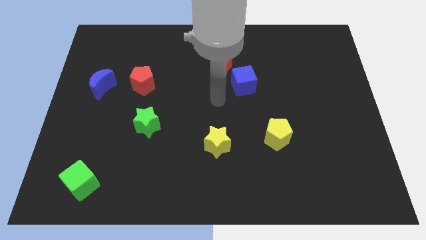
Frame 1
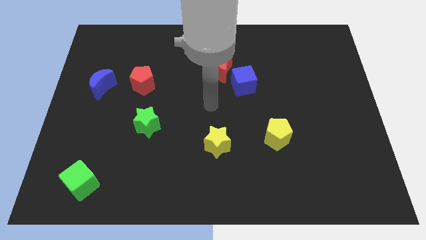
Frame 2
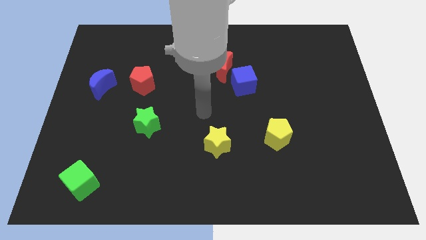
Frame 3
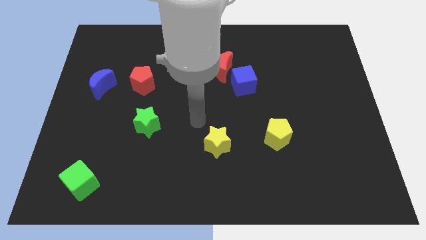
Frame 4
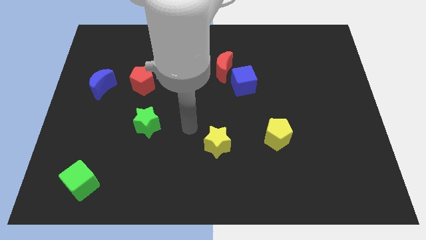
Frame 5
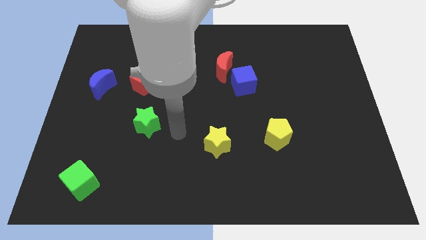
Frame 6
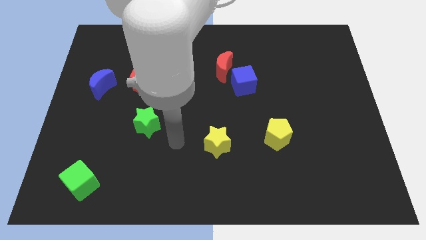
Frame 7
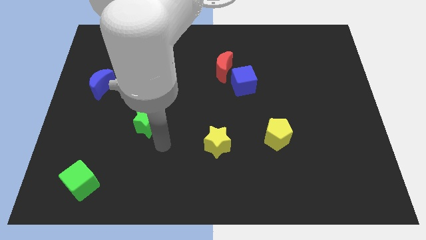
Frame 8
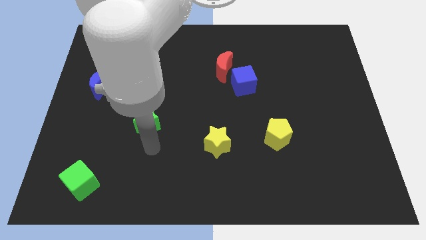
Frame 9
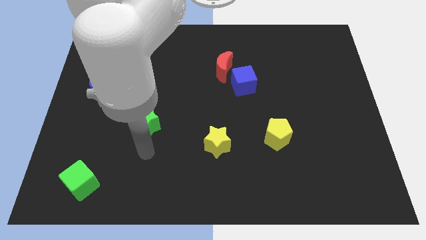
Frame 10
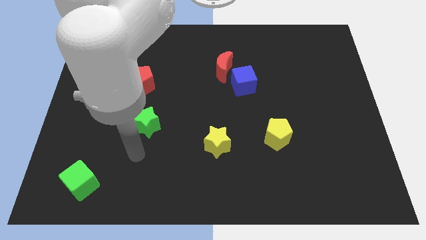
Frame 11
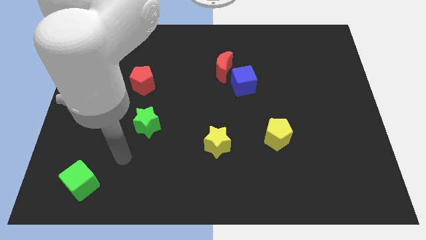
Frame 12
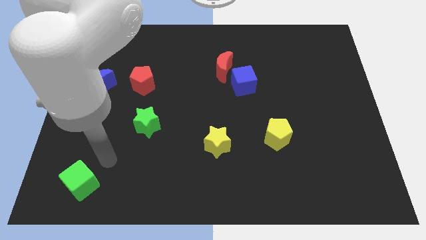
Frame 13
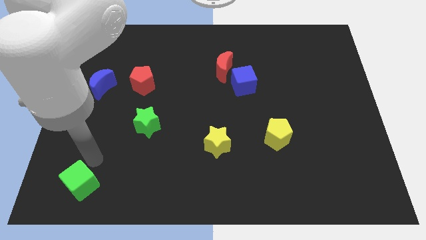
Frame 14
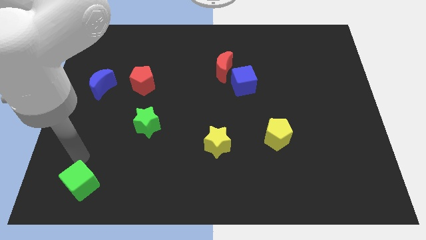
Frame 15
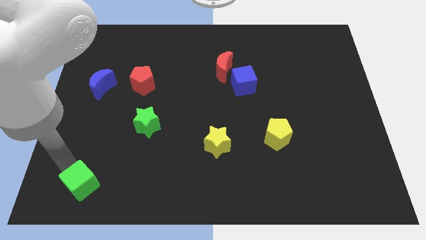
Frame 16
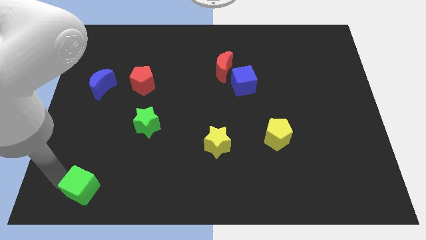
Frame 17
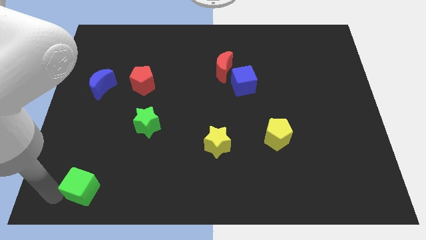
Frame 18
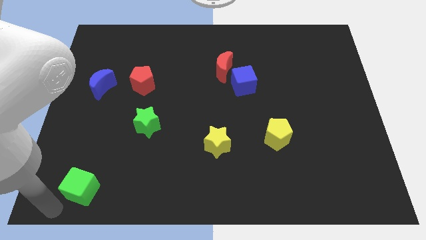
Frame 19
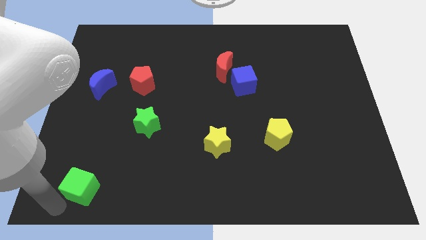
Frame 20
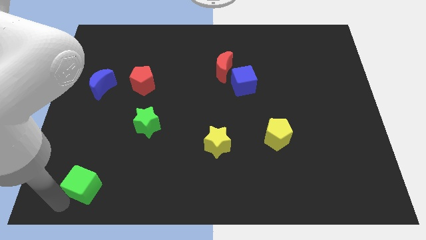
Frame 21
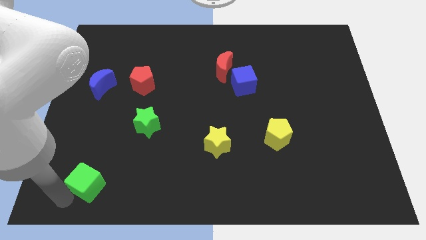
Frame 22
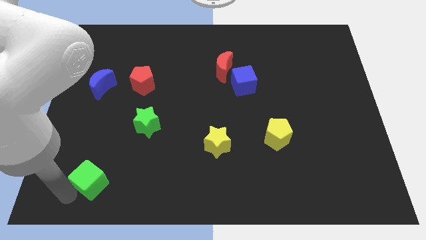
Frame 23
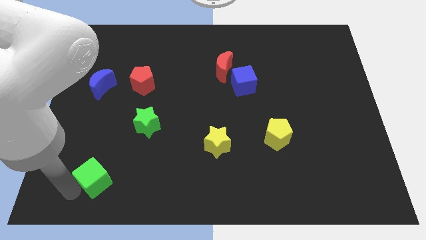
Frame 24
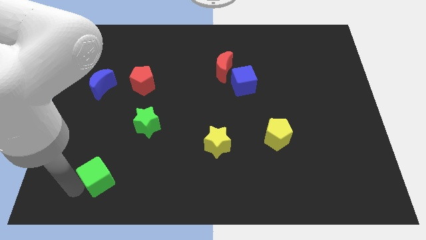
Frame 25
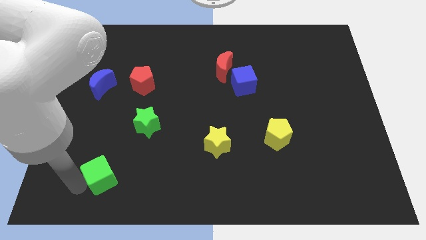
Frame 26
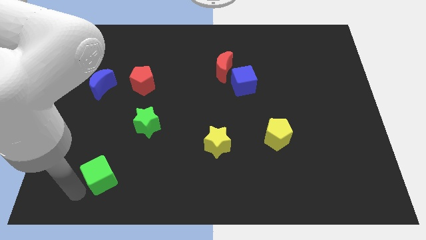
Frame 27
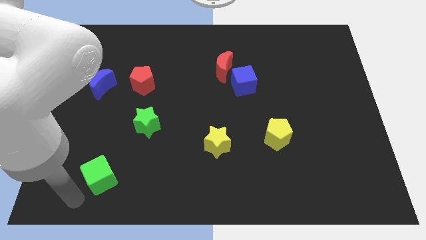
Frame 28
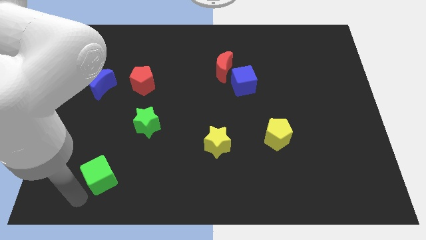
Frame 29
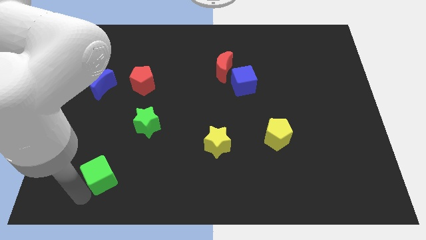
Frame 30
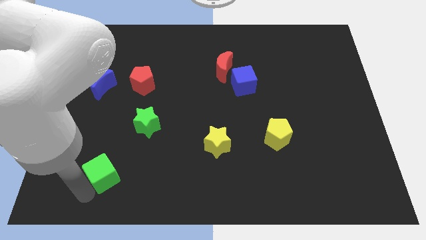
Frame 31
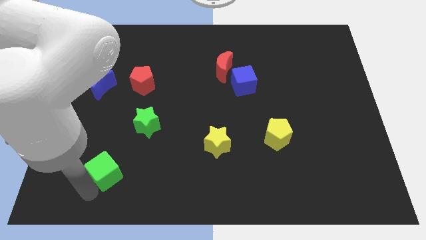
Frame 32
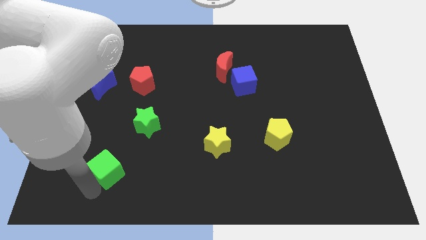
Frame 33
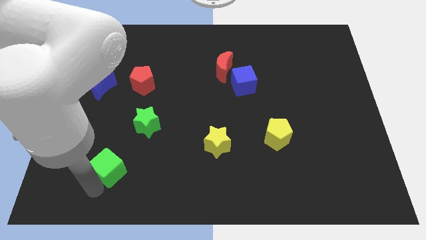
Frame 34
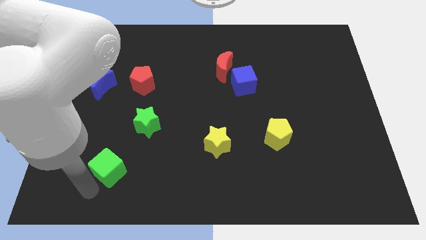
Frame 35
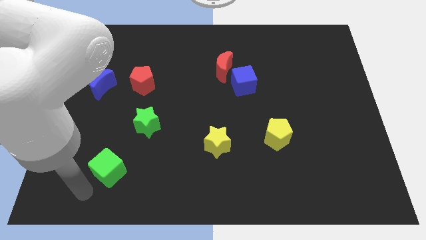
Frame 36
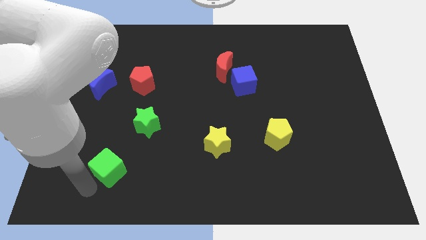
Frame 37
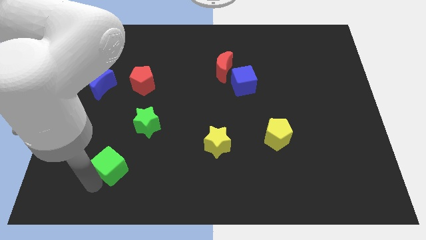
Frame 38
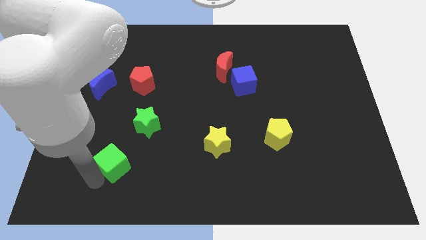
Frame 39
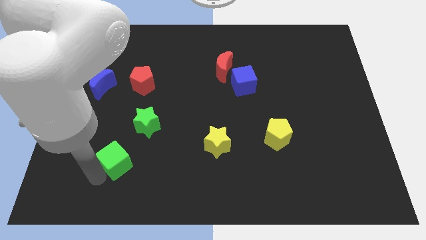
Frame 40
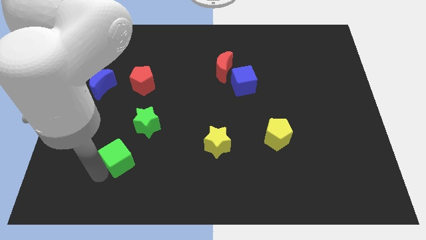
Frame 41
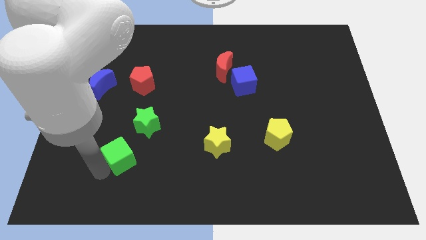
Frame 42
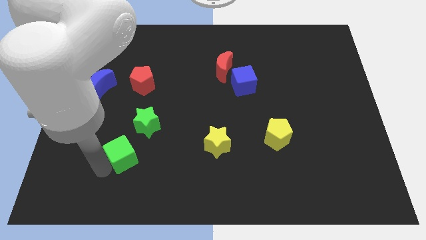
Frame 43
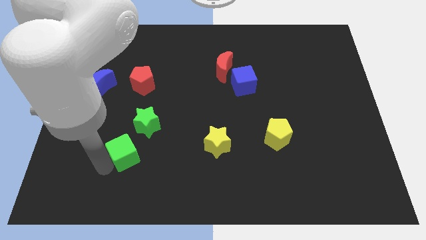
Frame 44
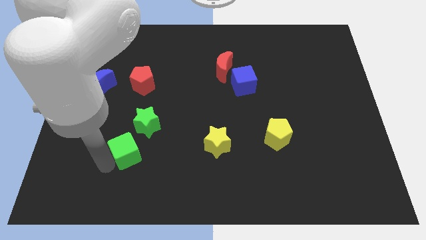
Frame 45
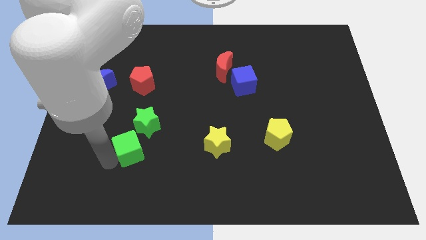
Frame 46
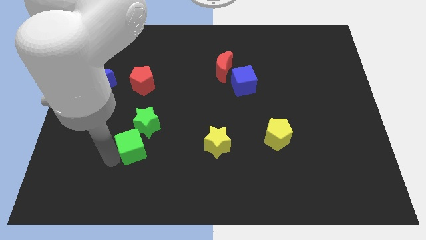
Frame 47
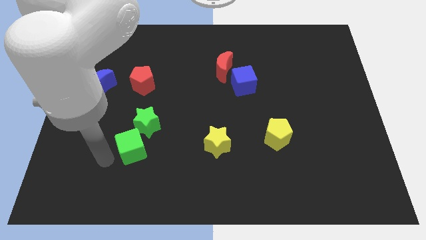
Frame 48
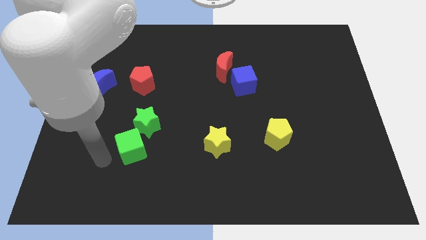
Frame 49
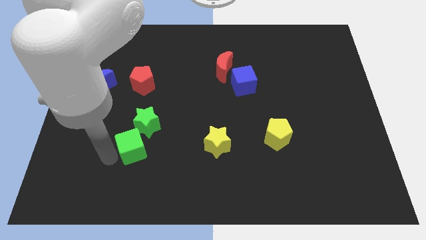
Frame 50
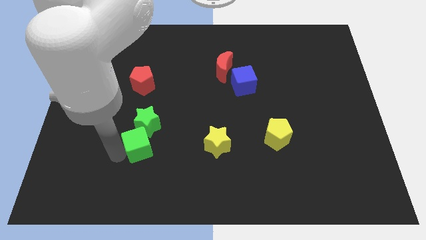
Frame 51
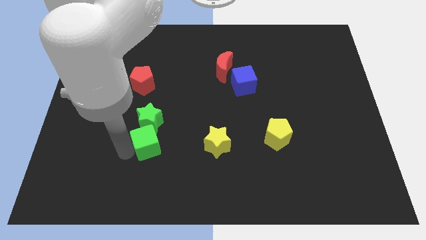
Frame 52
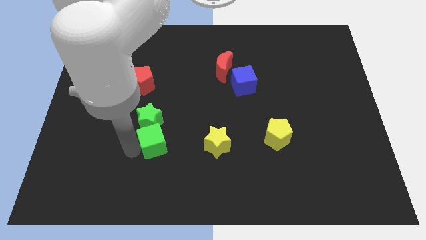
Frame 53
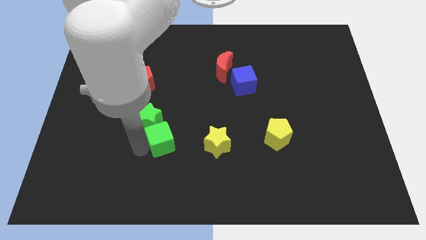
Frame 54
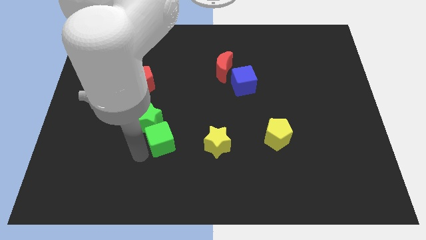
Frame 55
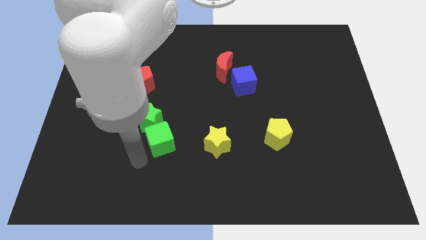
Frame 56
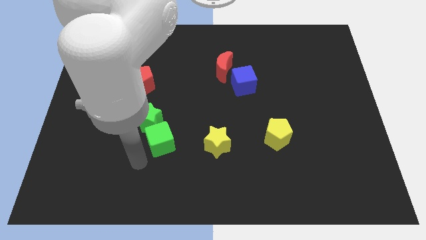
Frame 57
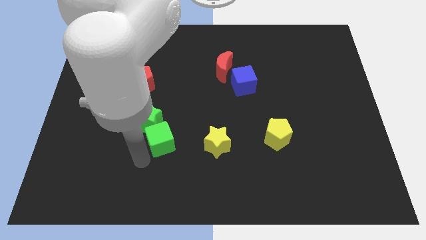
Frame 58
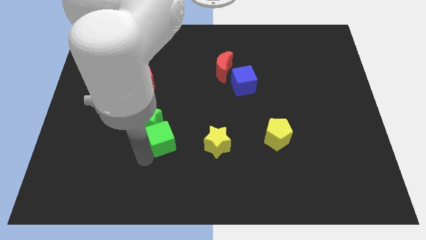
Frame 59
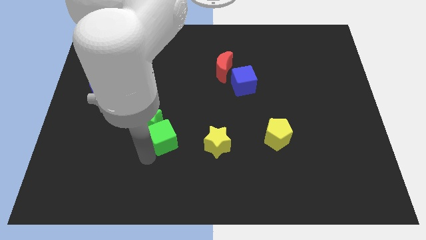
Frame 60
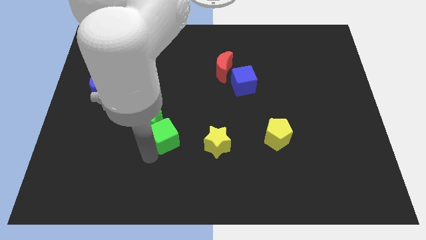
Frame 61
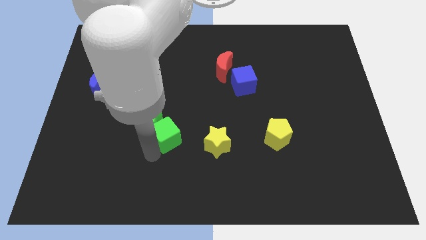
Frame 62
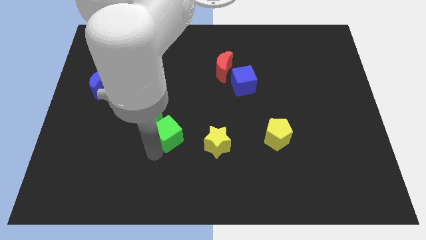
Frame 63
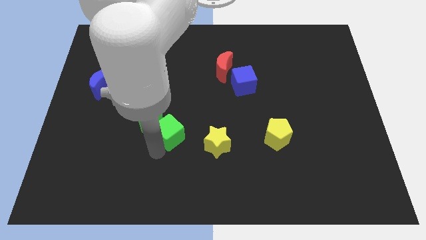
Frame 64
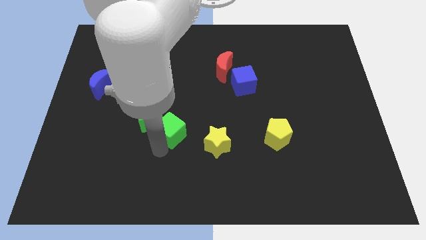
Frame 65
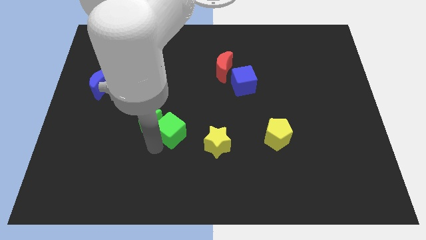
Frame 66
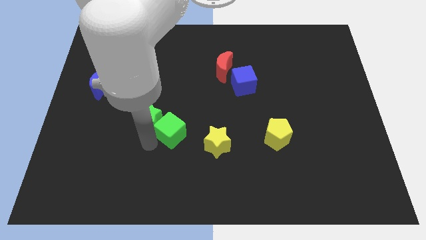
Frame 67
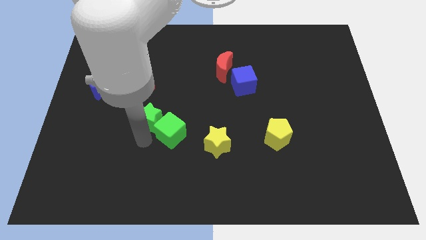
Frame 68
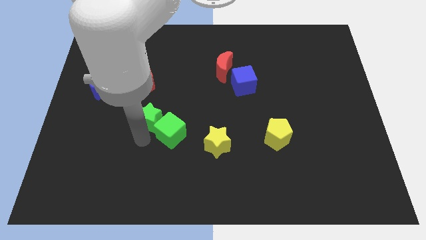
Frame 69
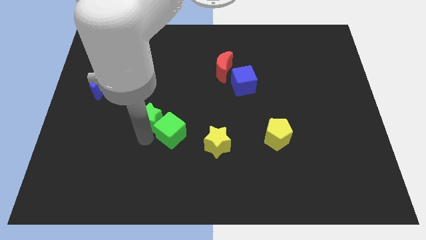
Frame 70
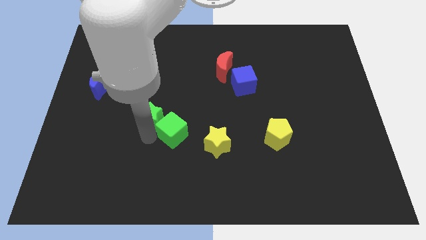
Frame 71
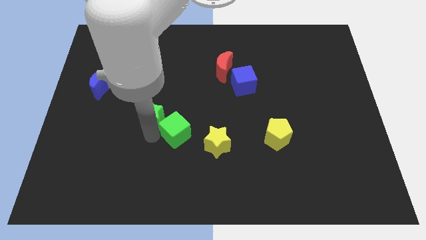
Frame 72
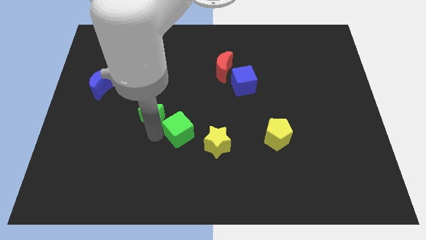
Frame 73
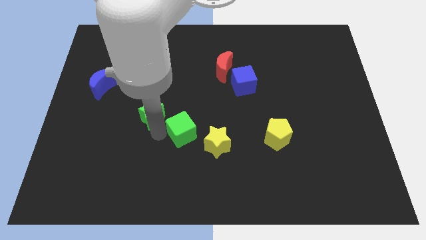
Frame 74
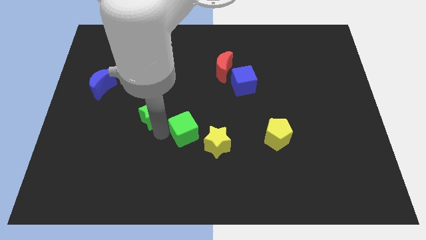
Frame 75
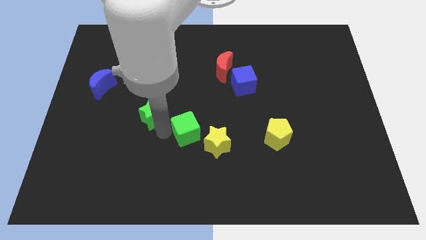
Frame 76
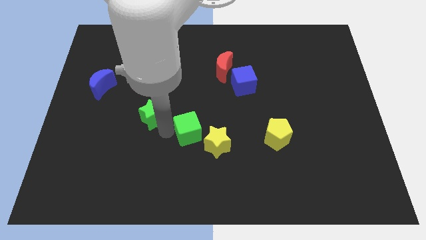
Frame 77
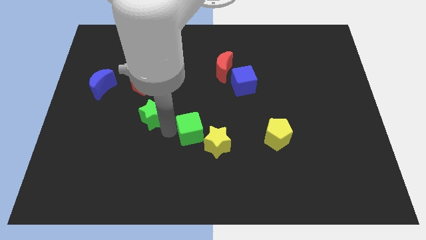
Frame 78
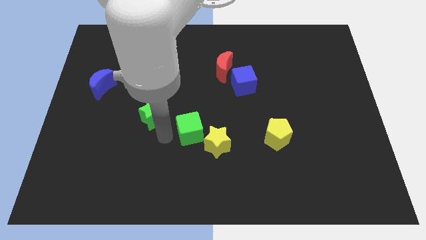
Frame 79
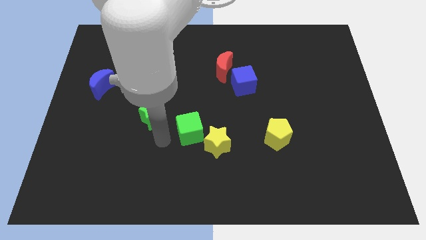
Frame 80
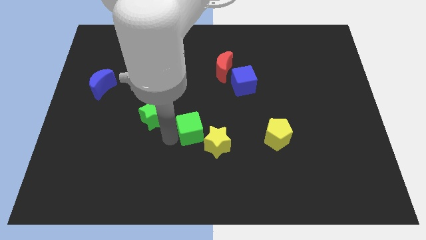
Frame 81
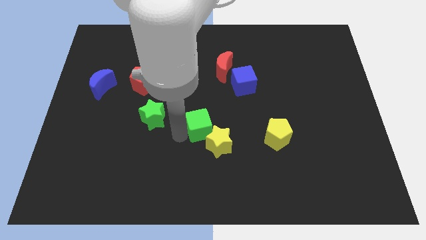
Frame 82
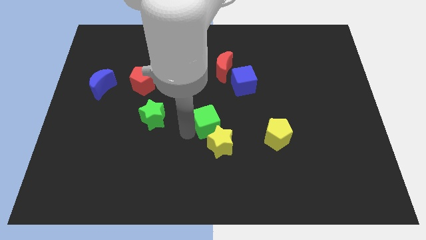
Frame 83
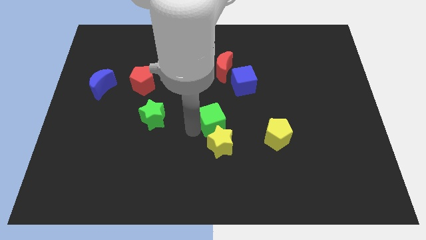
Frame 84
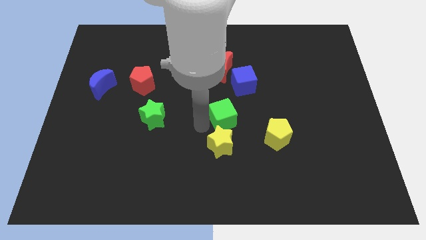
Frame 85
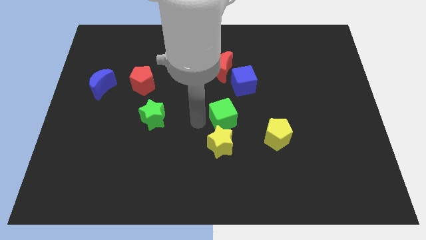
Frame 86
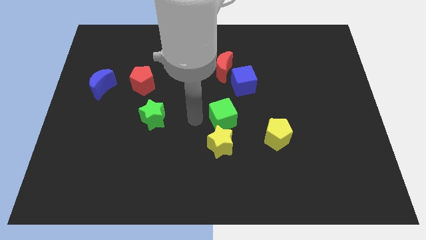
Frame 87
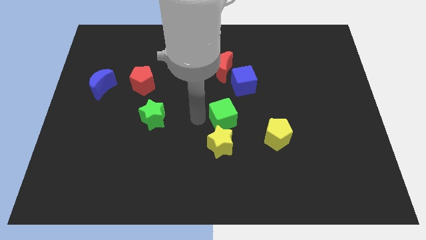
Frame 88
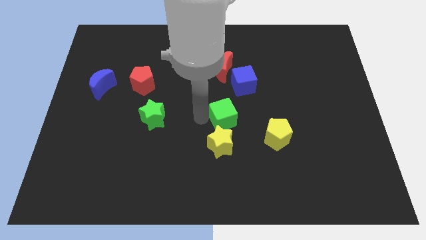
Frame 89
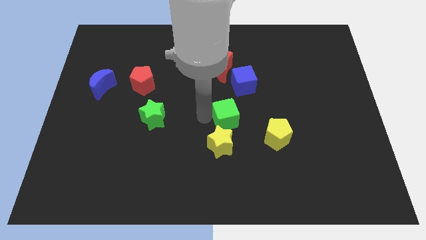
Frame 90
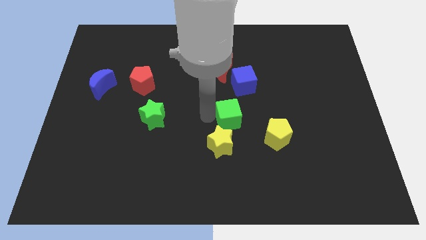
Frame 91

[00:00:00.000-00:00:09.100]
push the green cube diagonally up and to the left of the yellow pentagon
